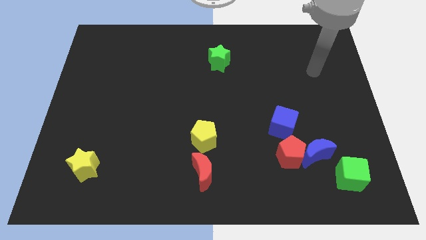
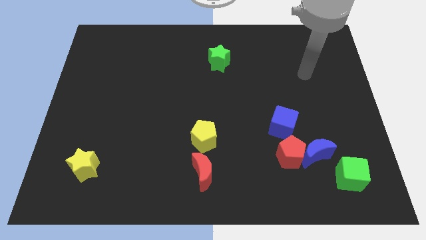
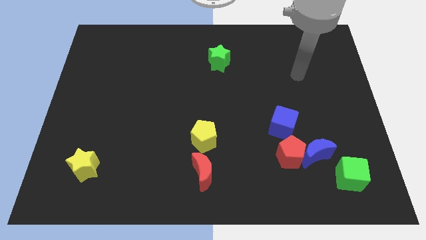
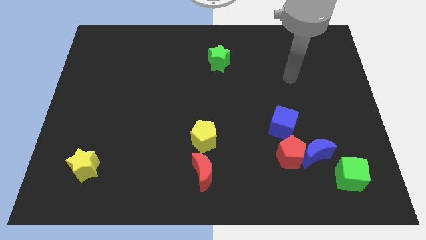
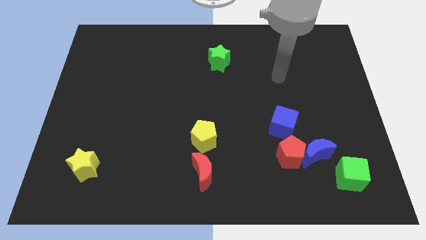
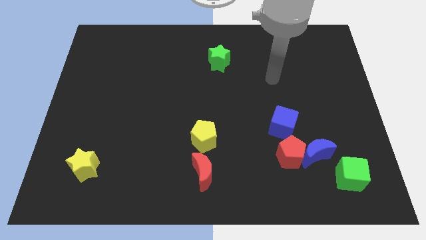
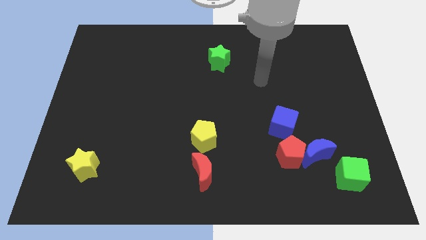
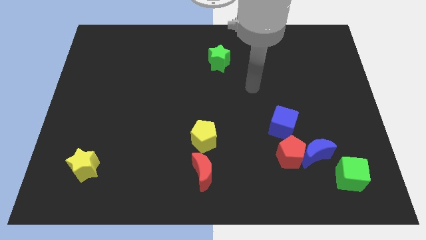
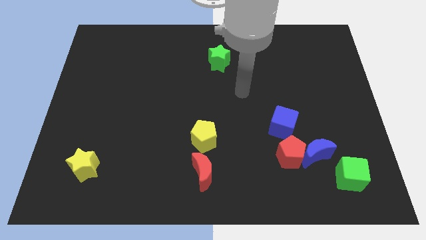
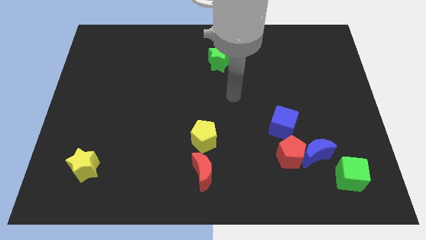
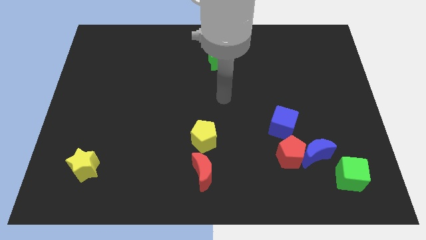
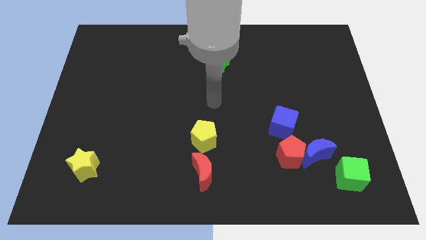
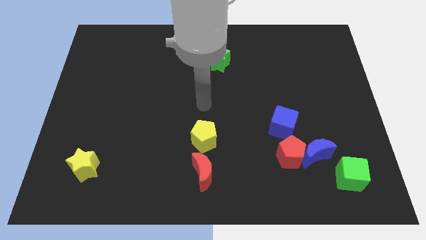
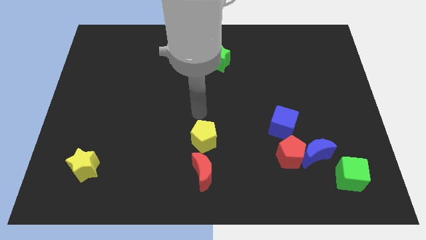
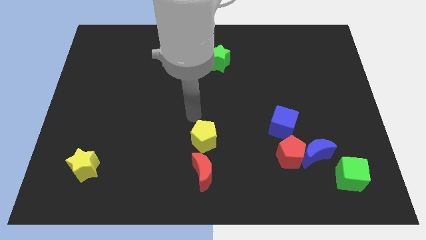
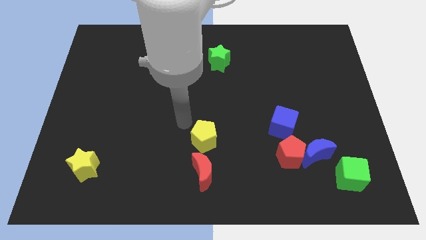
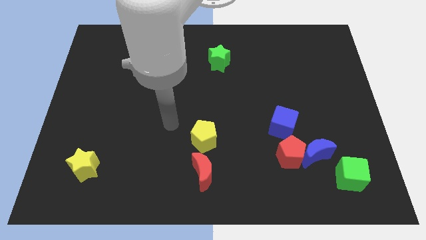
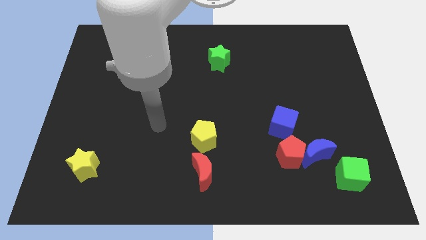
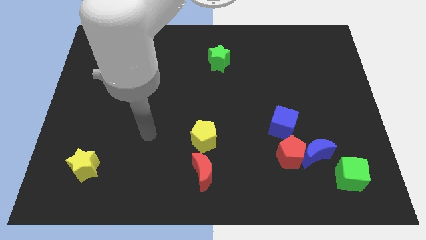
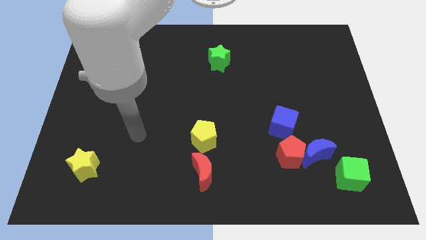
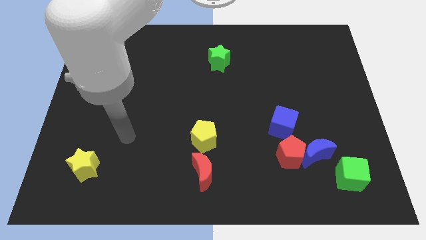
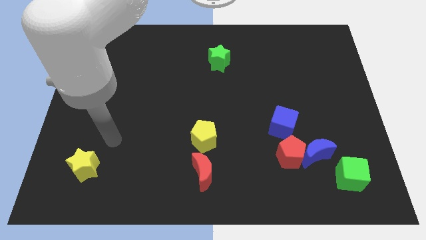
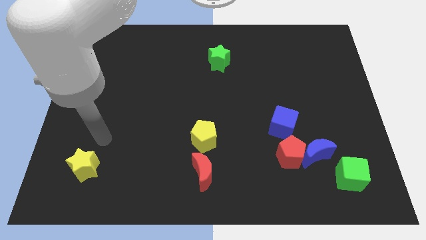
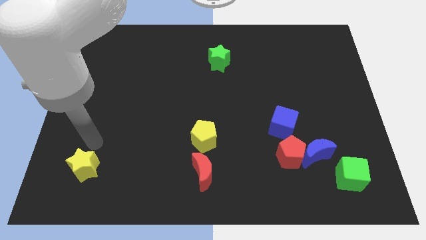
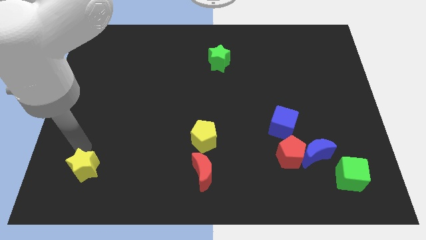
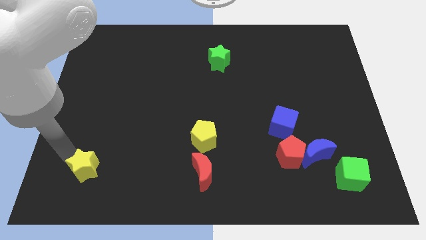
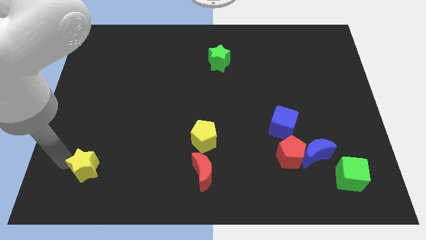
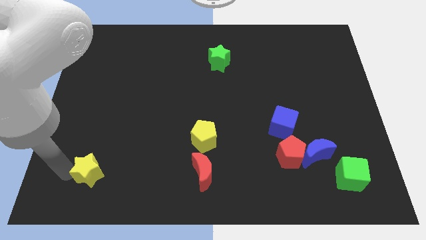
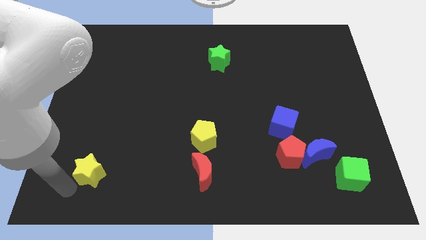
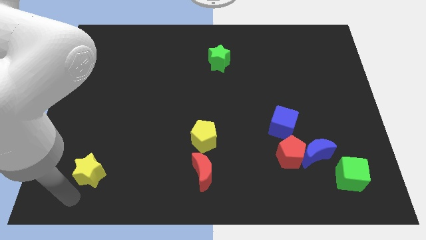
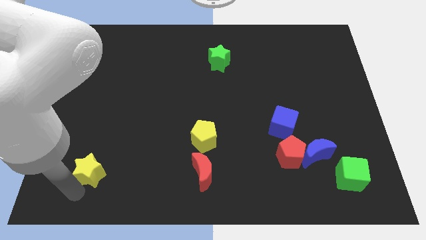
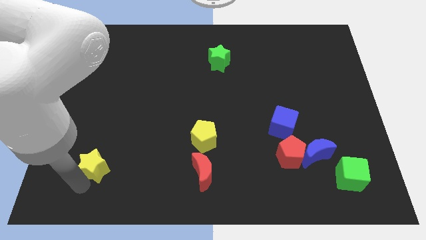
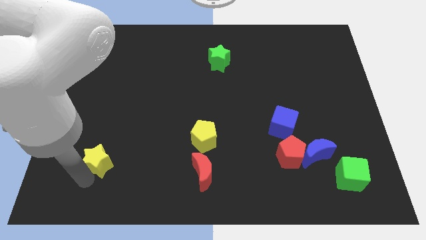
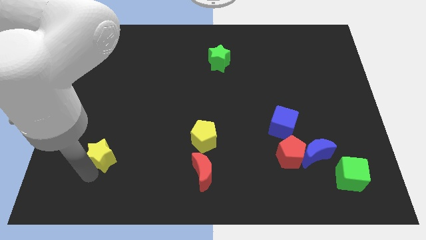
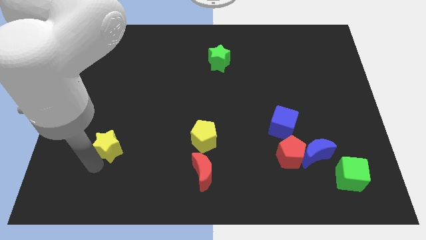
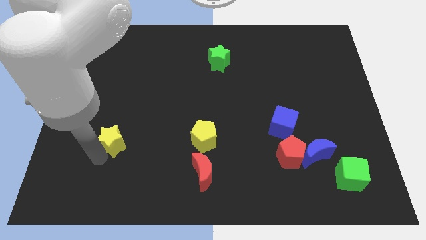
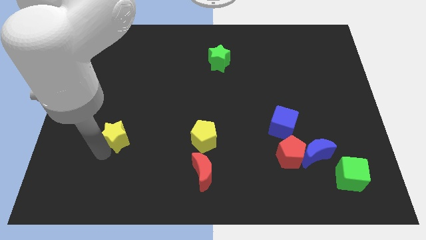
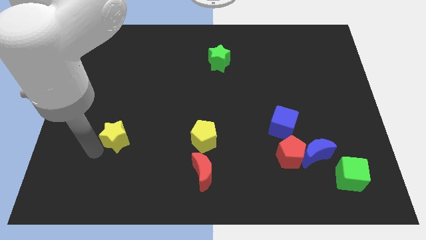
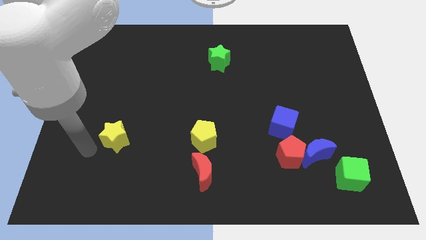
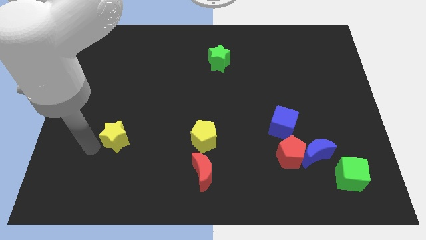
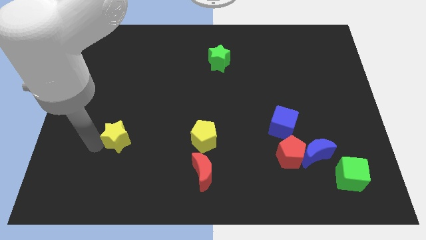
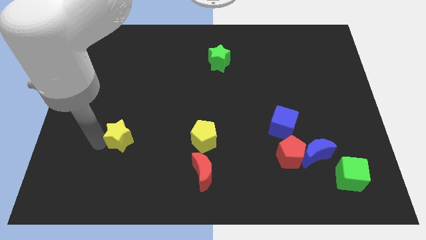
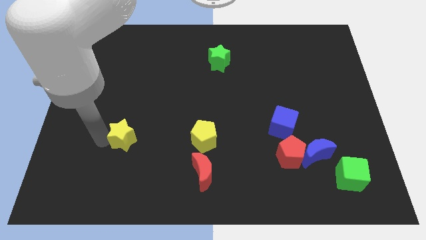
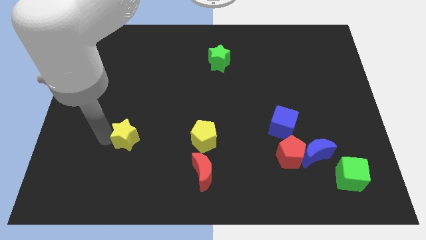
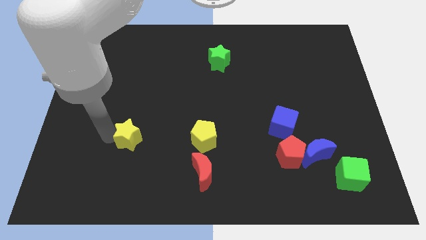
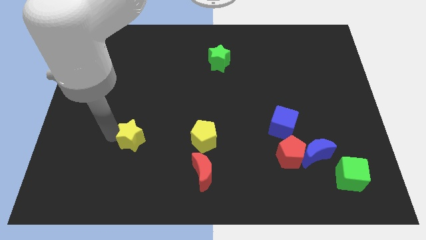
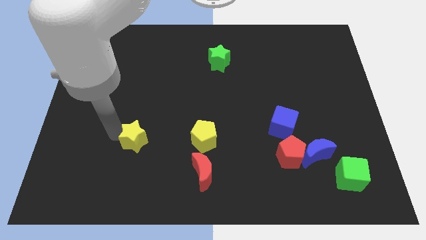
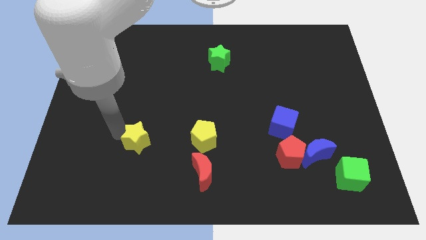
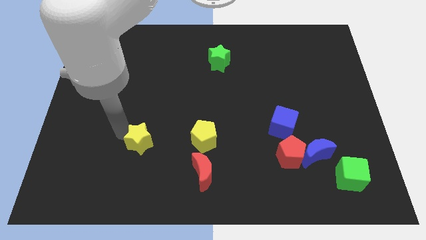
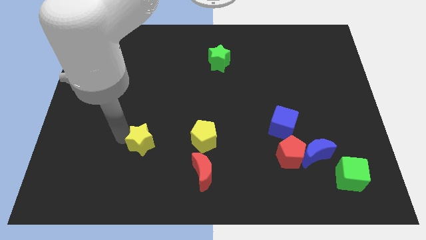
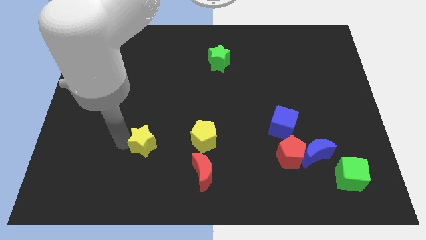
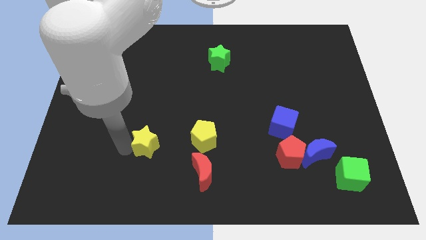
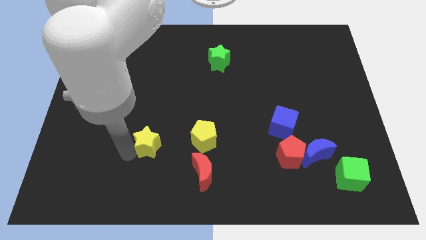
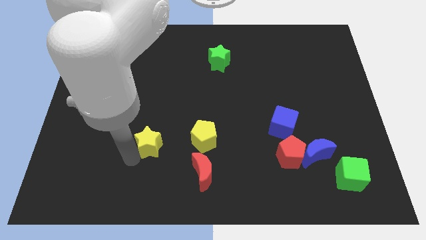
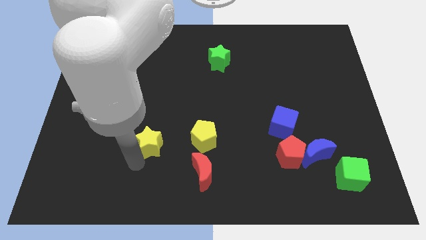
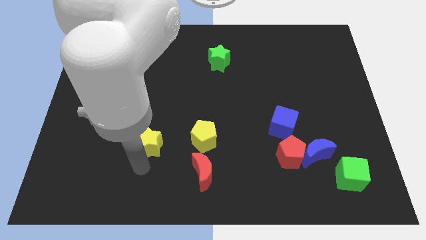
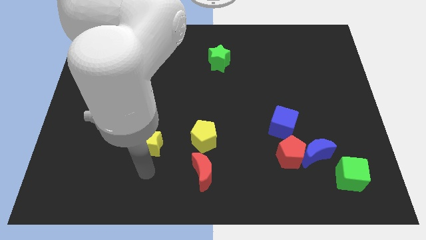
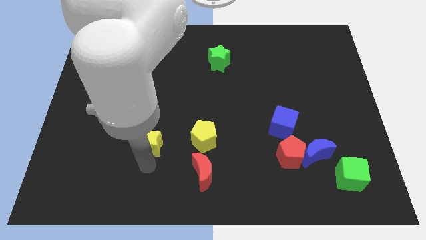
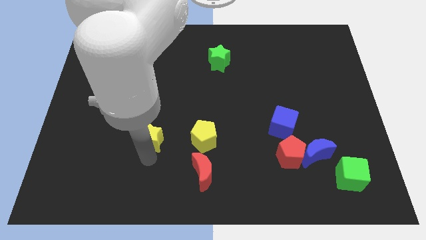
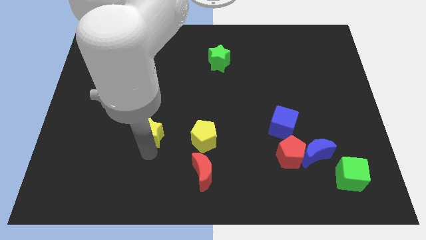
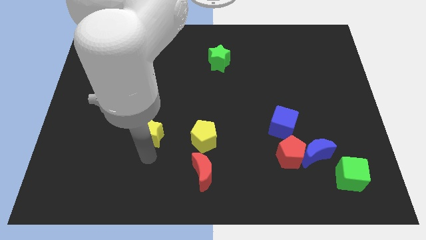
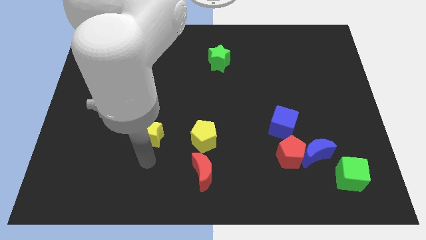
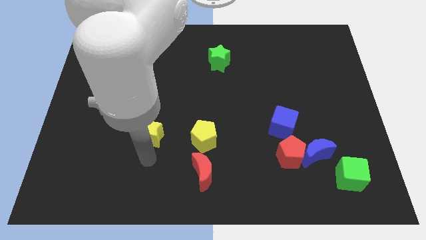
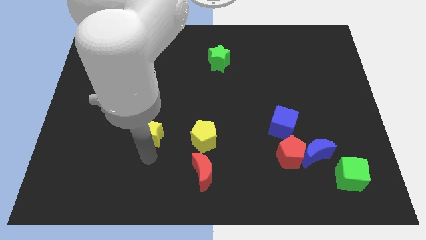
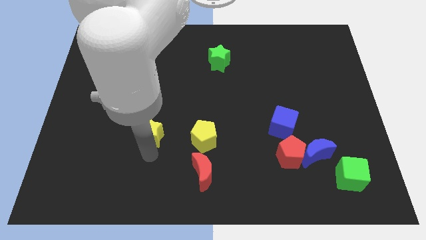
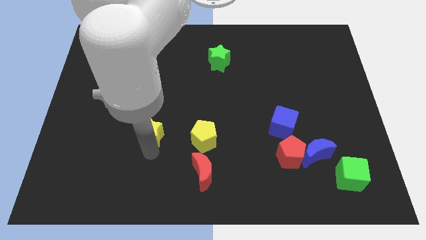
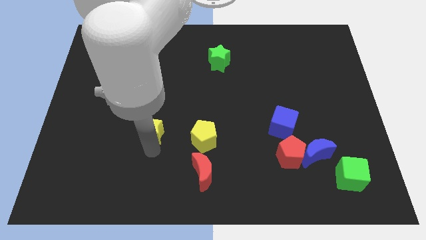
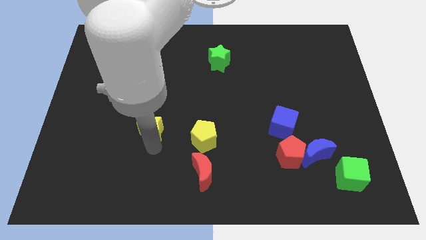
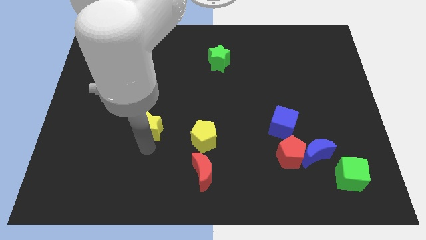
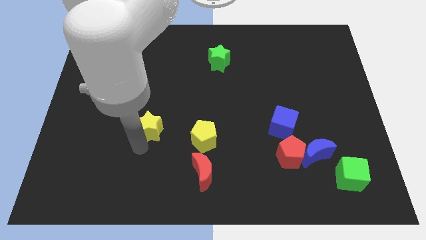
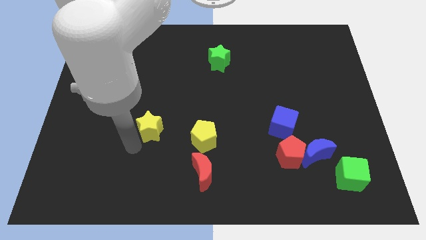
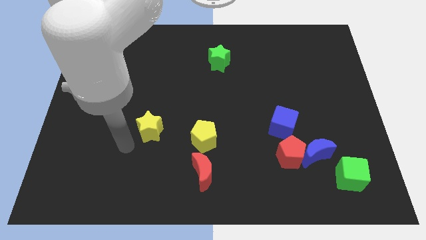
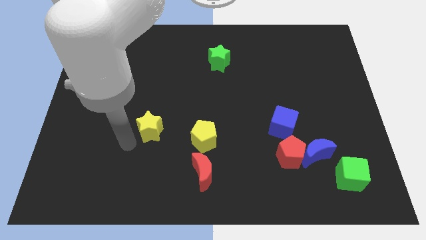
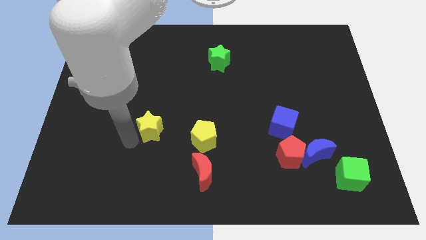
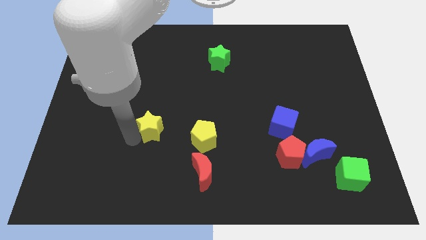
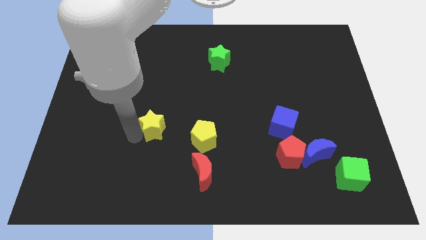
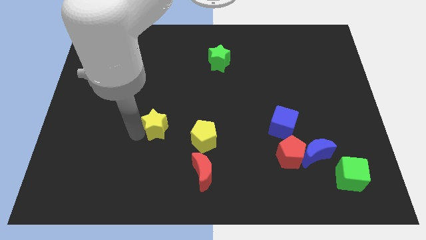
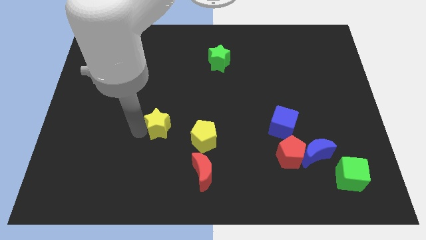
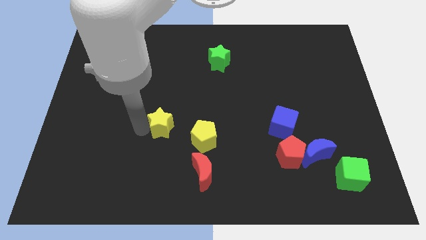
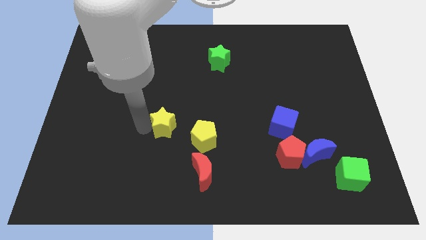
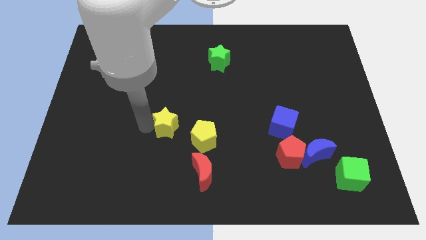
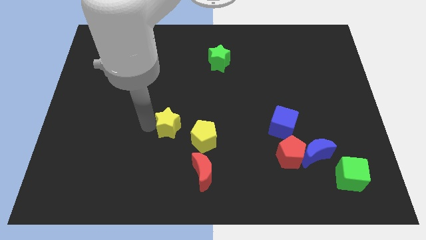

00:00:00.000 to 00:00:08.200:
move the yellow star to the center
